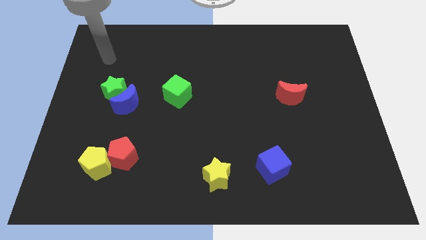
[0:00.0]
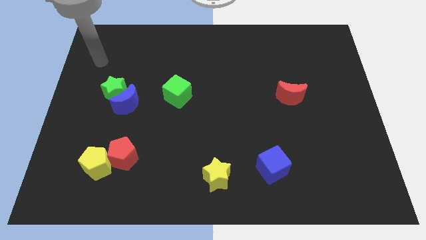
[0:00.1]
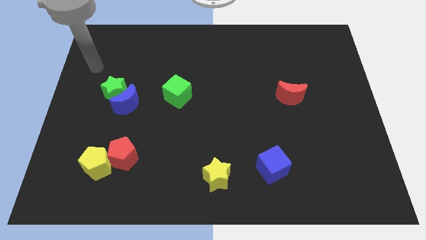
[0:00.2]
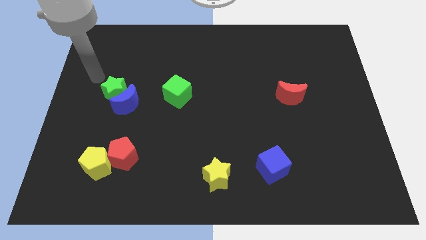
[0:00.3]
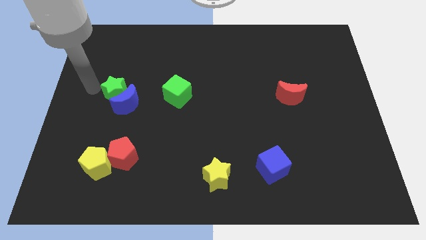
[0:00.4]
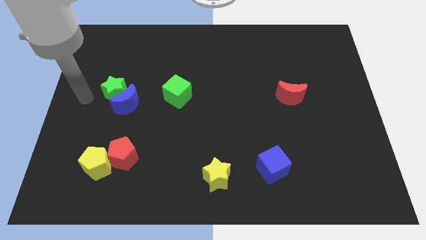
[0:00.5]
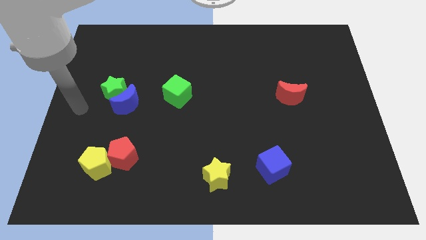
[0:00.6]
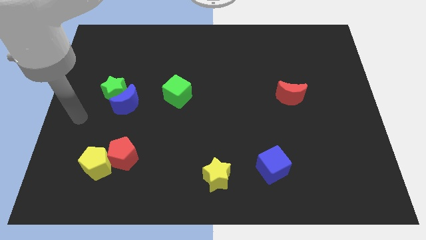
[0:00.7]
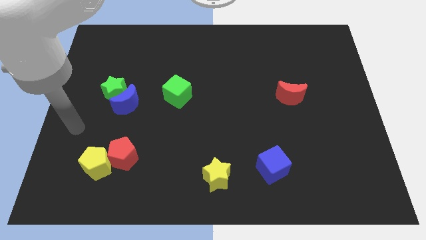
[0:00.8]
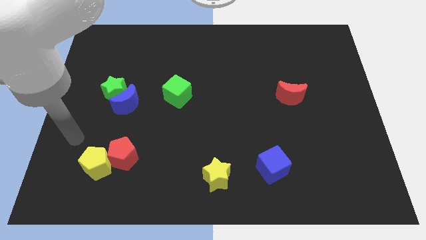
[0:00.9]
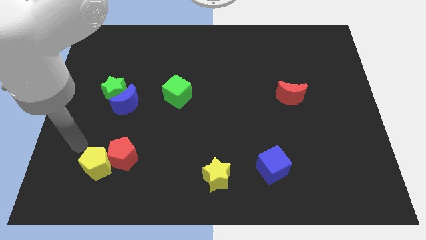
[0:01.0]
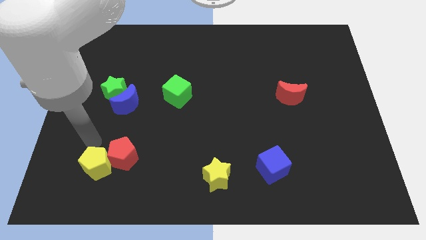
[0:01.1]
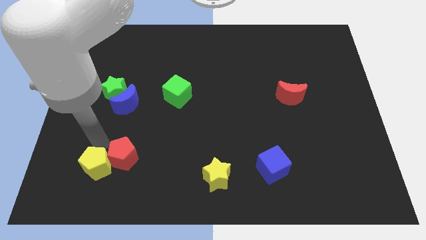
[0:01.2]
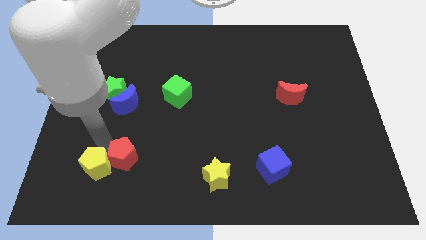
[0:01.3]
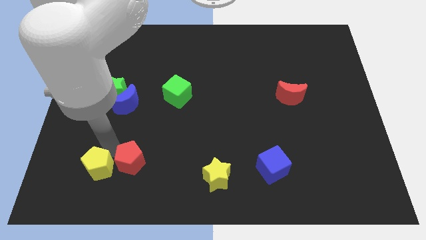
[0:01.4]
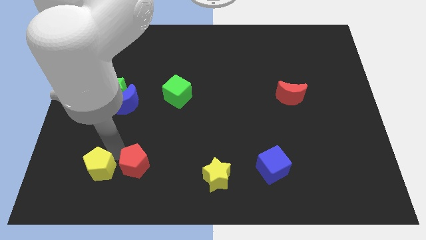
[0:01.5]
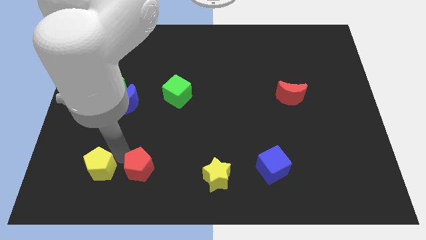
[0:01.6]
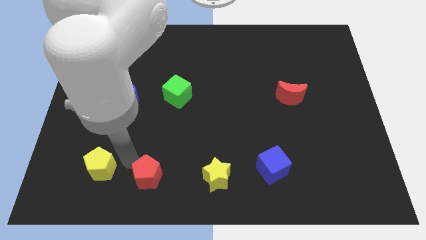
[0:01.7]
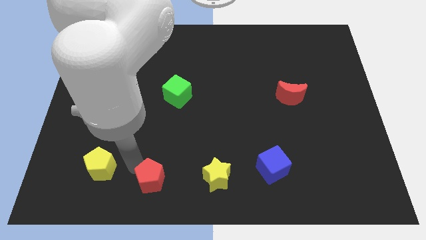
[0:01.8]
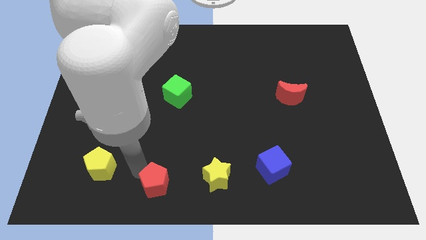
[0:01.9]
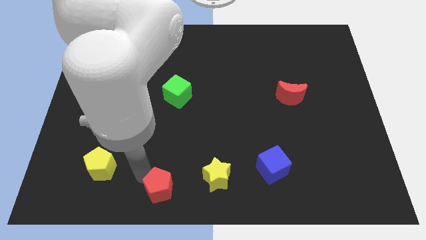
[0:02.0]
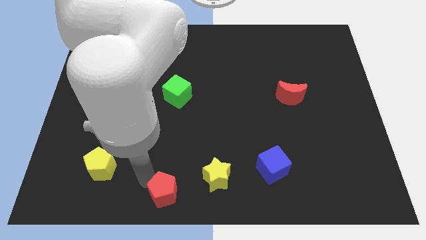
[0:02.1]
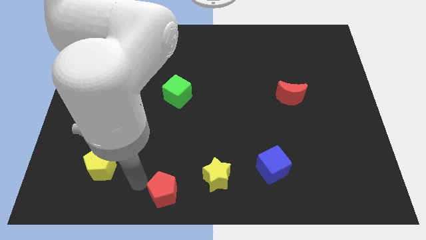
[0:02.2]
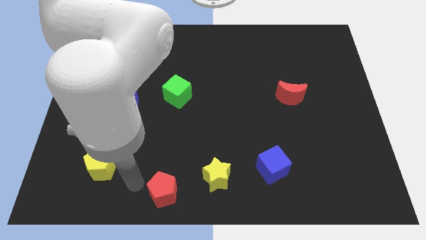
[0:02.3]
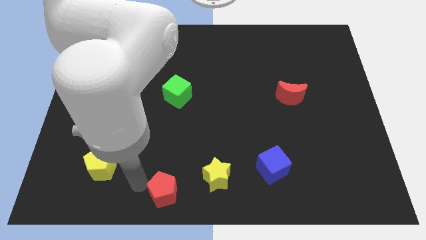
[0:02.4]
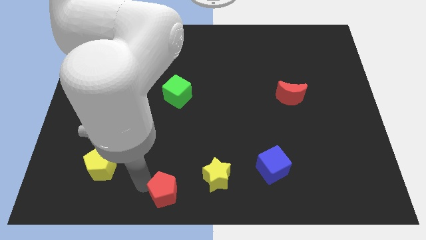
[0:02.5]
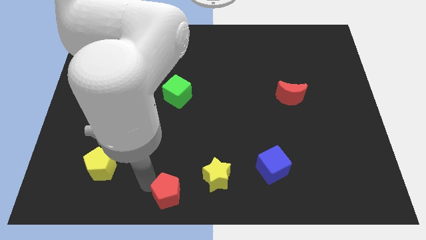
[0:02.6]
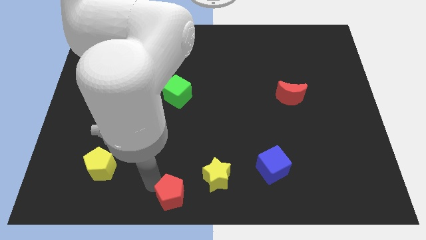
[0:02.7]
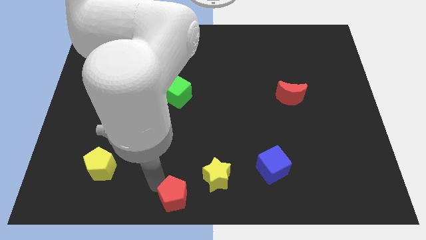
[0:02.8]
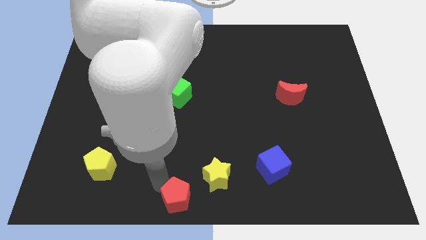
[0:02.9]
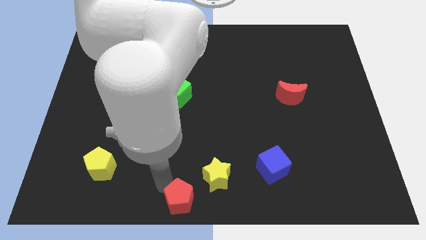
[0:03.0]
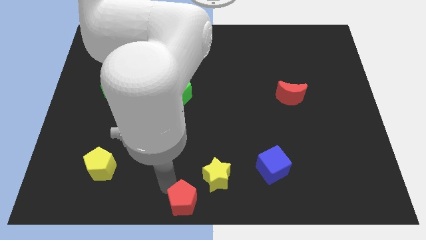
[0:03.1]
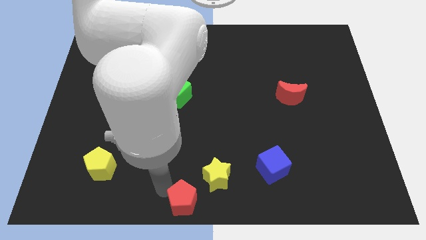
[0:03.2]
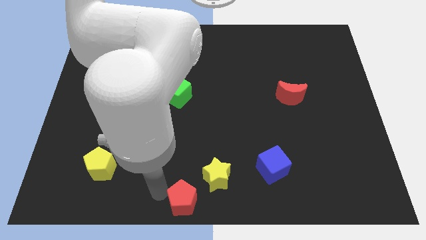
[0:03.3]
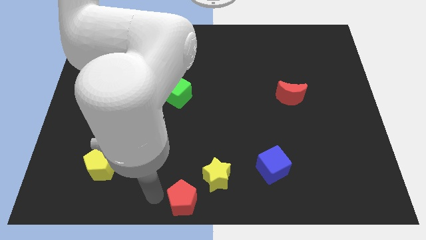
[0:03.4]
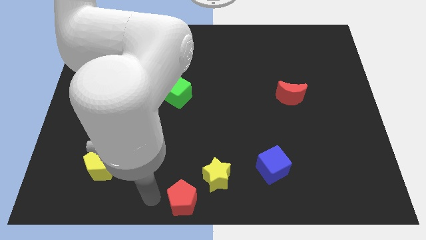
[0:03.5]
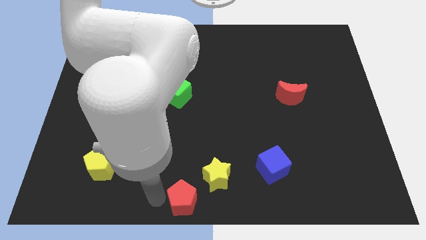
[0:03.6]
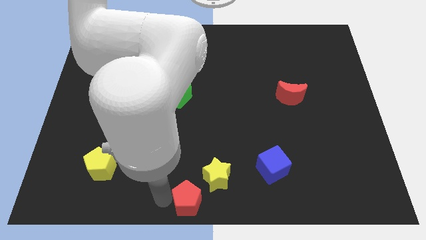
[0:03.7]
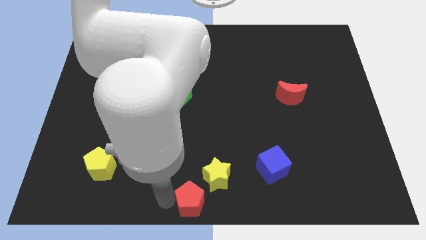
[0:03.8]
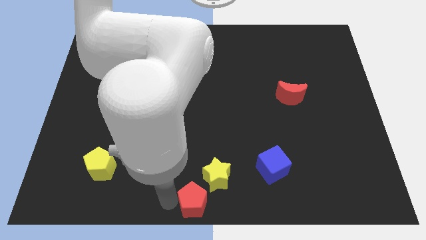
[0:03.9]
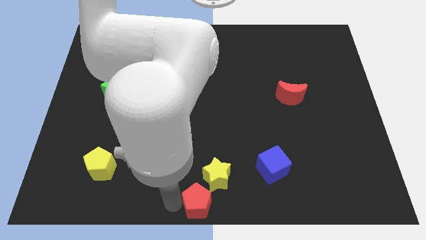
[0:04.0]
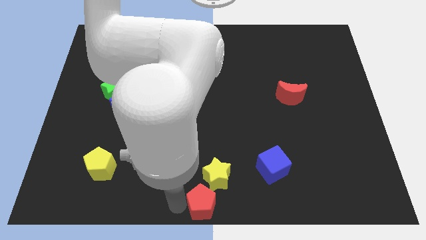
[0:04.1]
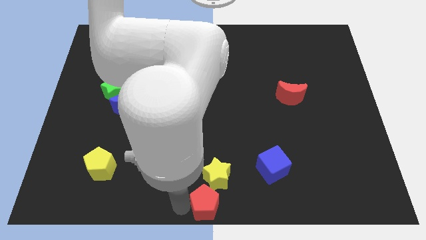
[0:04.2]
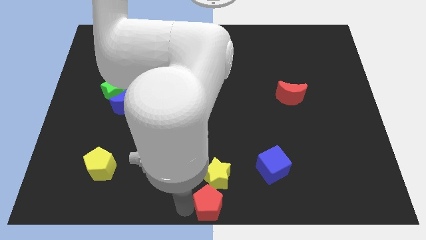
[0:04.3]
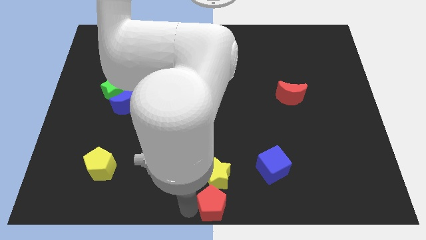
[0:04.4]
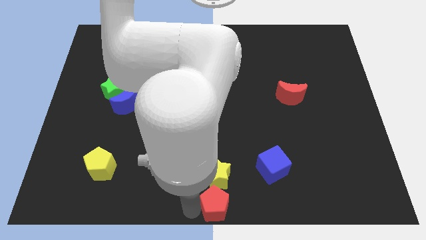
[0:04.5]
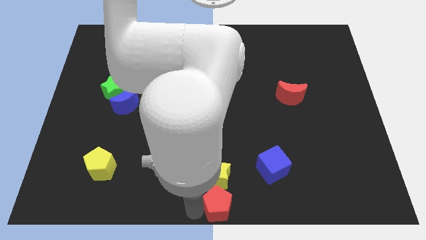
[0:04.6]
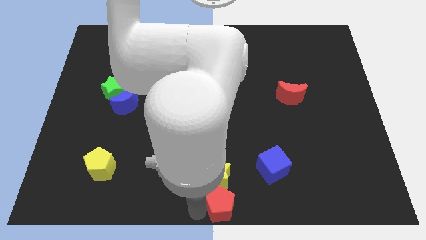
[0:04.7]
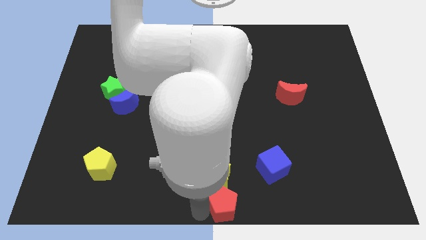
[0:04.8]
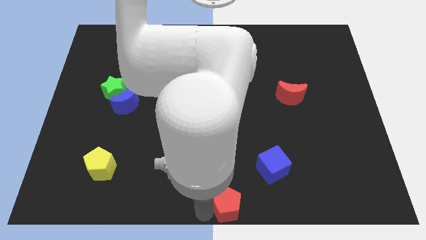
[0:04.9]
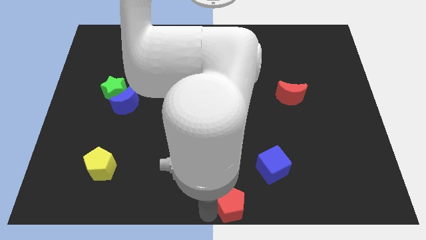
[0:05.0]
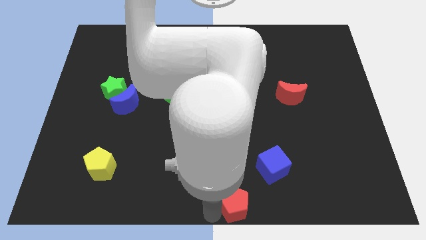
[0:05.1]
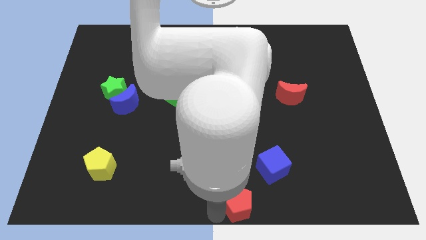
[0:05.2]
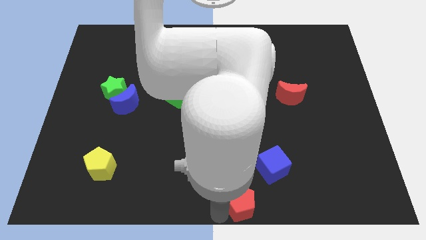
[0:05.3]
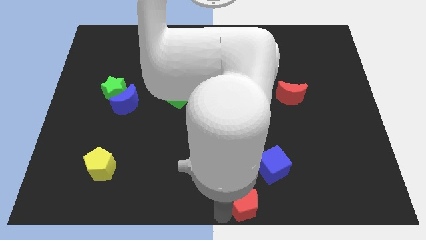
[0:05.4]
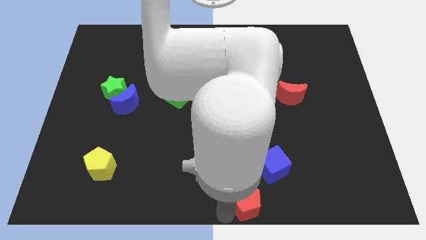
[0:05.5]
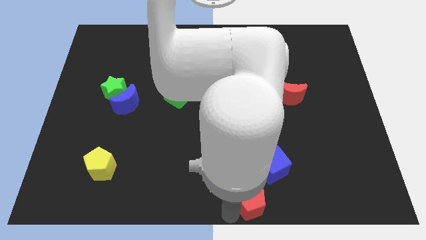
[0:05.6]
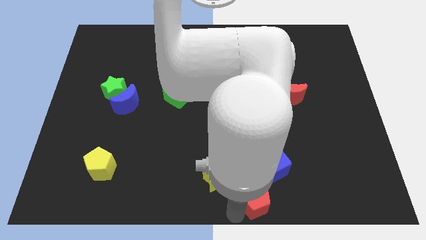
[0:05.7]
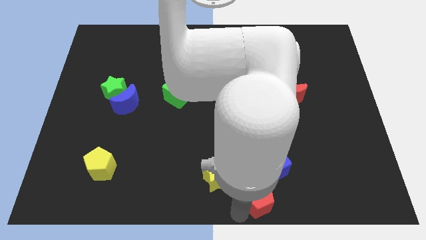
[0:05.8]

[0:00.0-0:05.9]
put the red pentagon to the right side of the yellow star

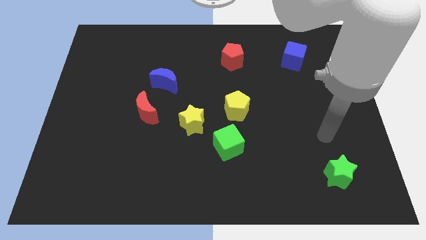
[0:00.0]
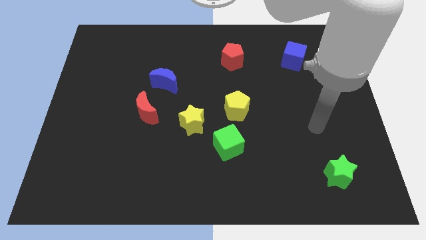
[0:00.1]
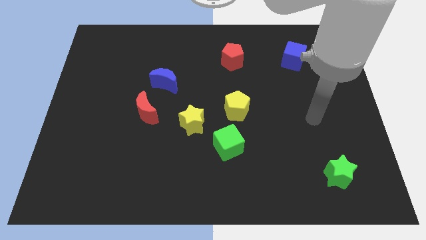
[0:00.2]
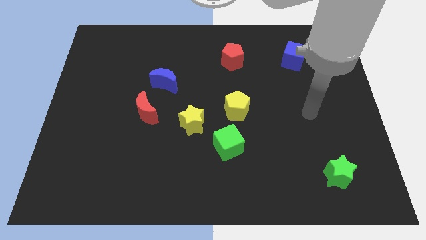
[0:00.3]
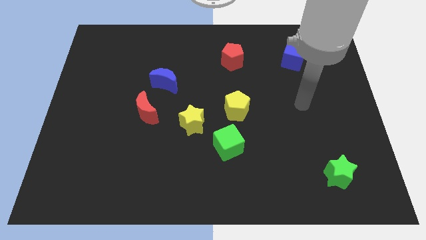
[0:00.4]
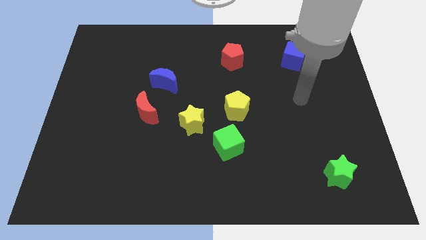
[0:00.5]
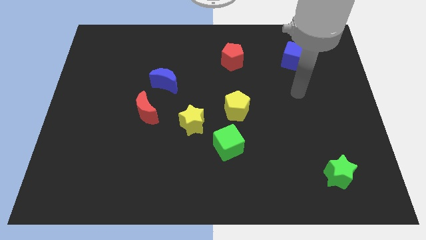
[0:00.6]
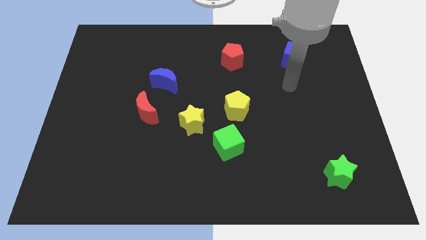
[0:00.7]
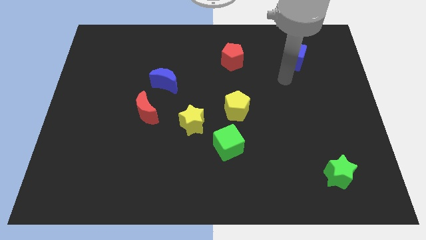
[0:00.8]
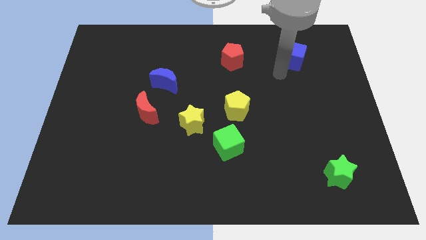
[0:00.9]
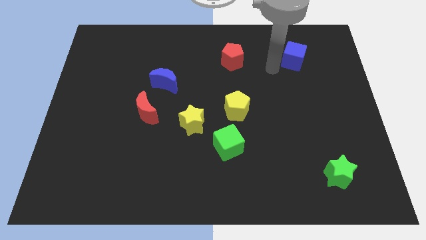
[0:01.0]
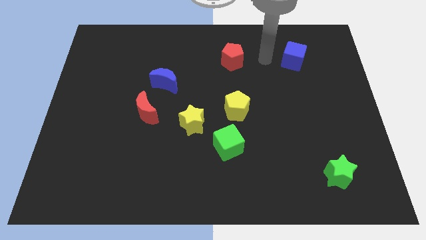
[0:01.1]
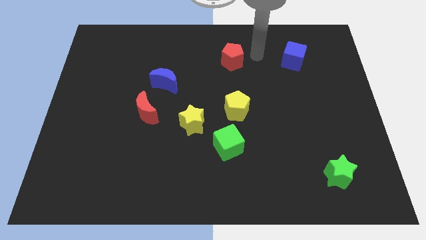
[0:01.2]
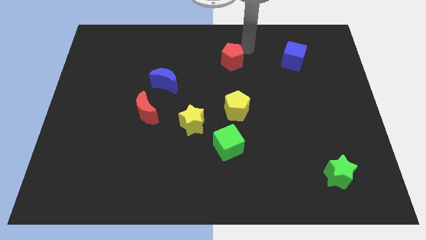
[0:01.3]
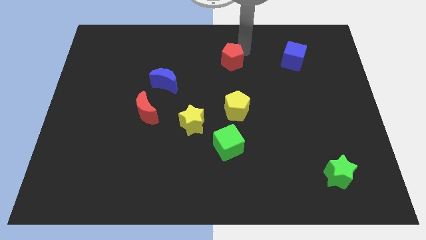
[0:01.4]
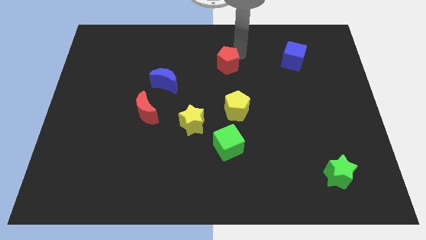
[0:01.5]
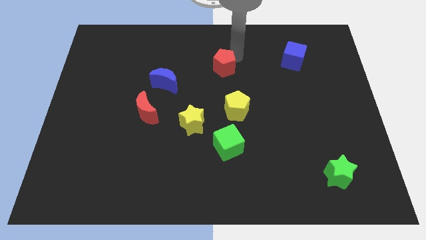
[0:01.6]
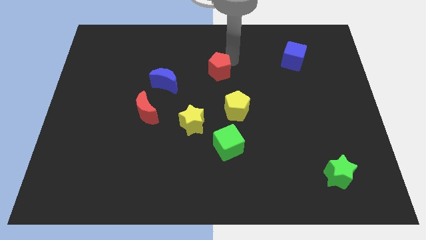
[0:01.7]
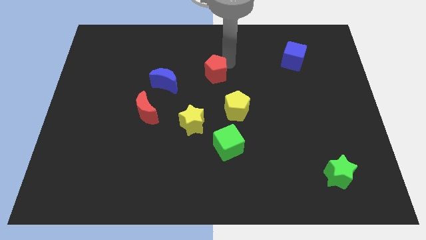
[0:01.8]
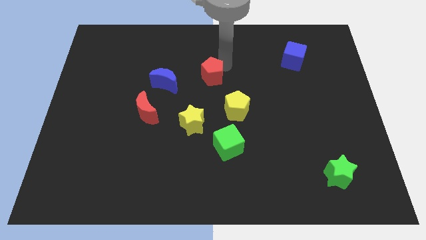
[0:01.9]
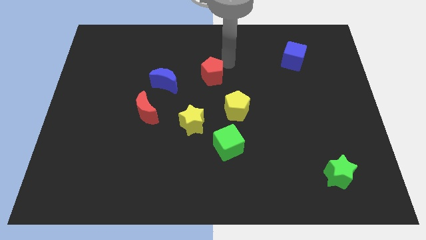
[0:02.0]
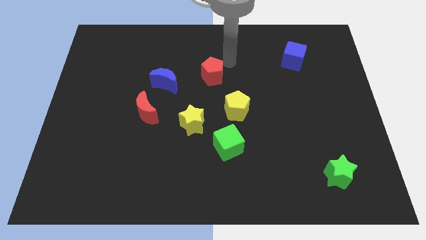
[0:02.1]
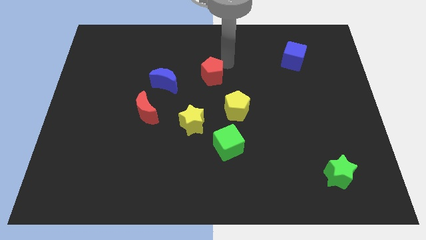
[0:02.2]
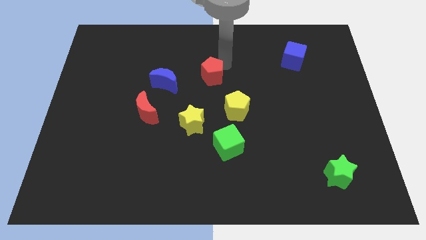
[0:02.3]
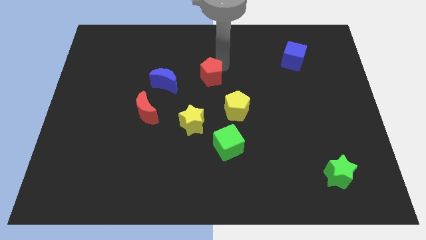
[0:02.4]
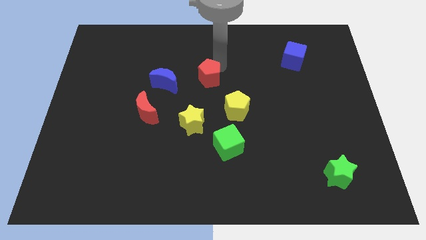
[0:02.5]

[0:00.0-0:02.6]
move the red pentagon to the top of the yellow star
